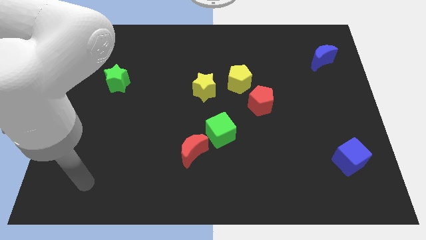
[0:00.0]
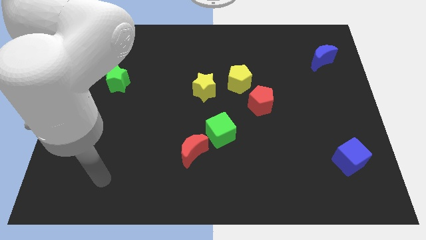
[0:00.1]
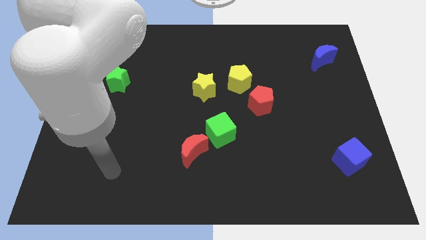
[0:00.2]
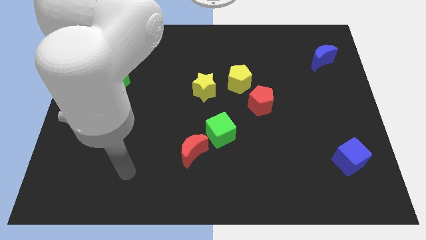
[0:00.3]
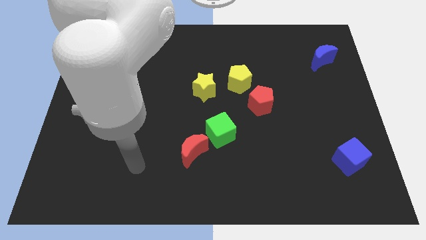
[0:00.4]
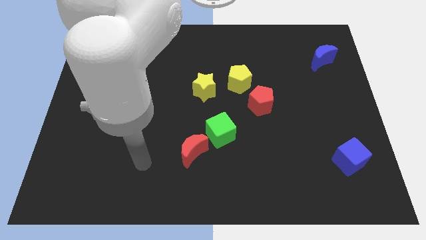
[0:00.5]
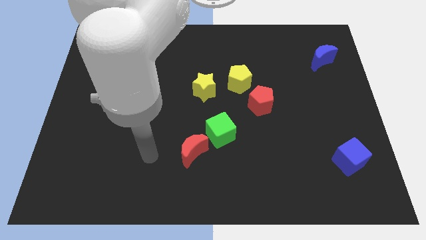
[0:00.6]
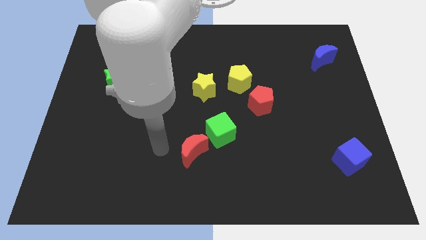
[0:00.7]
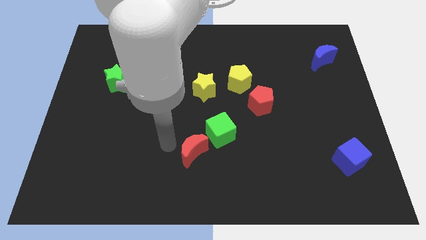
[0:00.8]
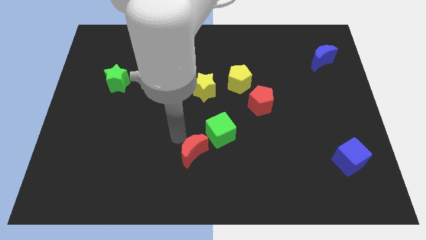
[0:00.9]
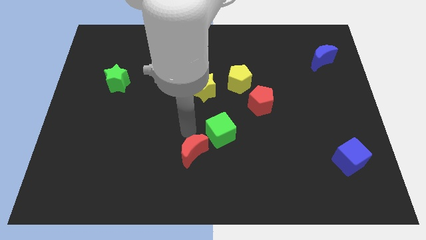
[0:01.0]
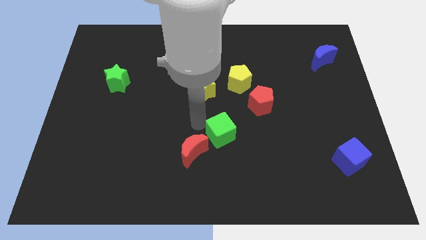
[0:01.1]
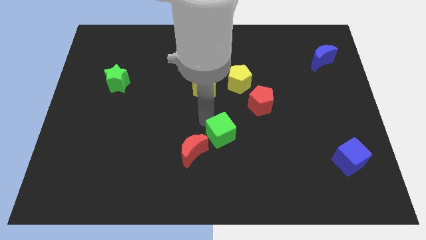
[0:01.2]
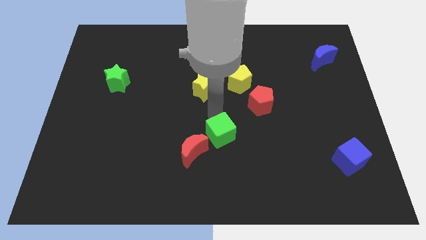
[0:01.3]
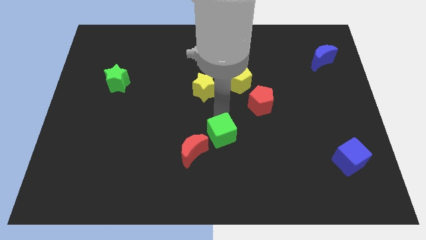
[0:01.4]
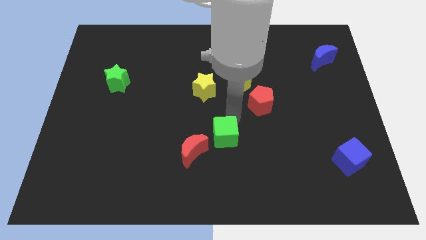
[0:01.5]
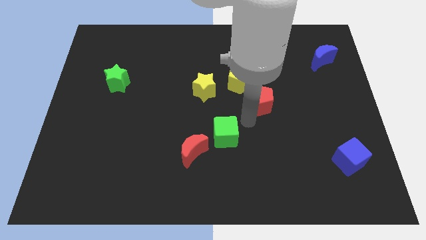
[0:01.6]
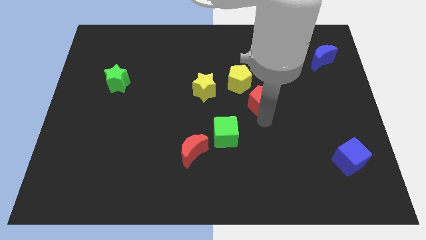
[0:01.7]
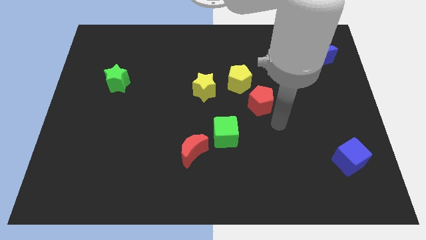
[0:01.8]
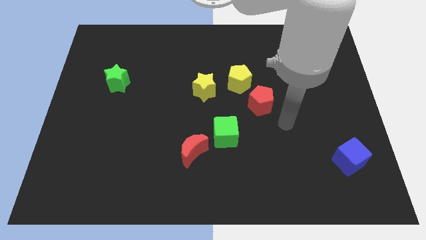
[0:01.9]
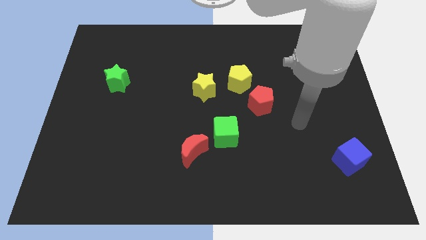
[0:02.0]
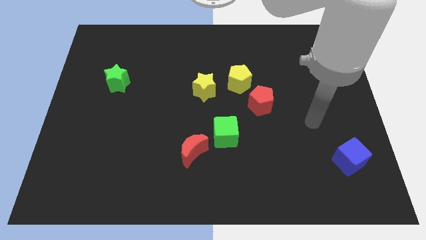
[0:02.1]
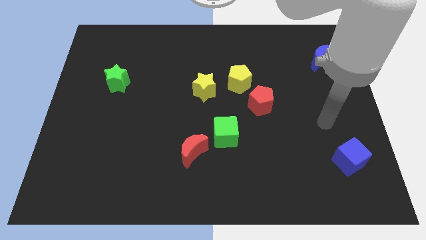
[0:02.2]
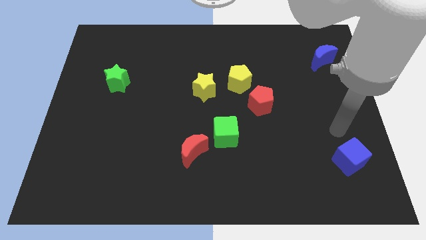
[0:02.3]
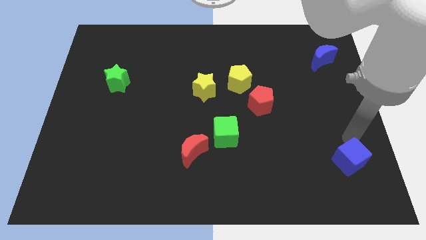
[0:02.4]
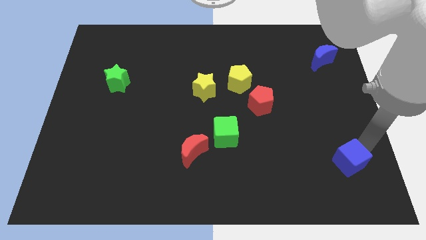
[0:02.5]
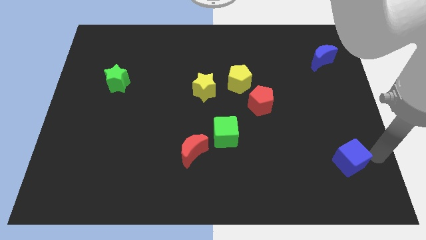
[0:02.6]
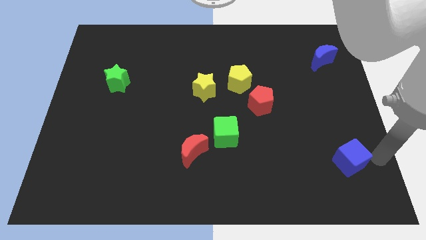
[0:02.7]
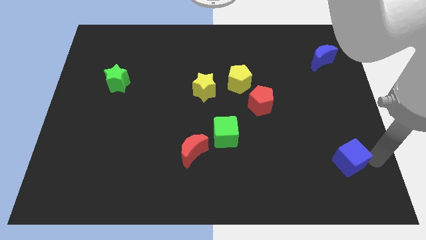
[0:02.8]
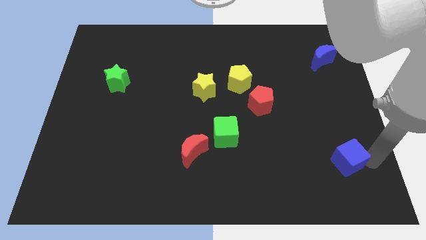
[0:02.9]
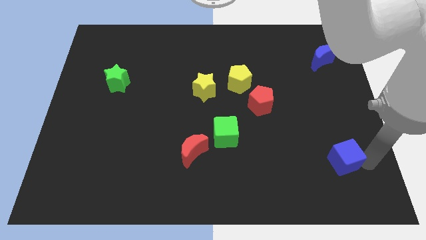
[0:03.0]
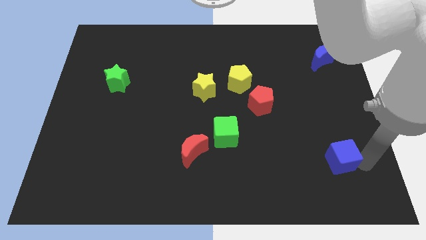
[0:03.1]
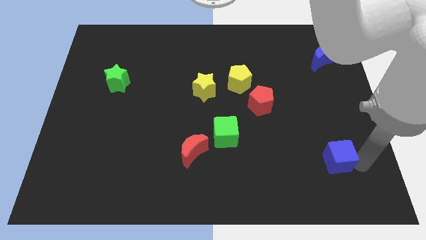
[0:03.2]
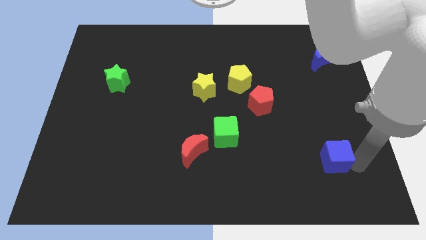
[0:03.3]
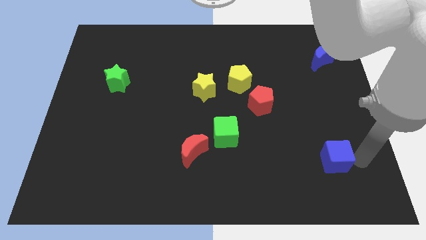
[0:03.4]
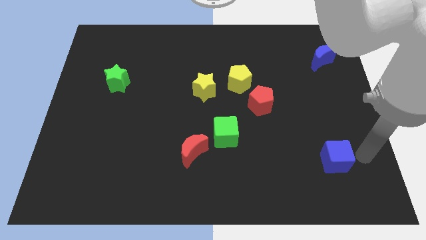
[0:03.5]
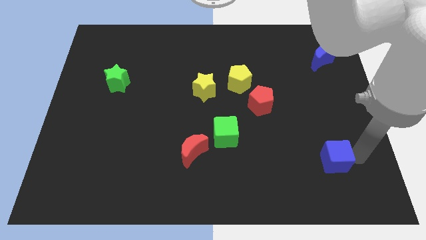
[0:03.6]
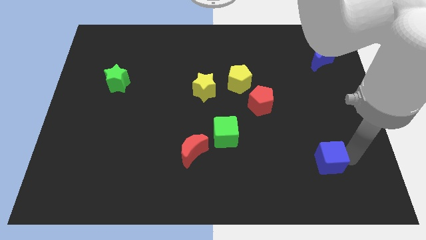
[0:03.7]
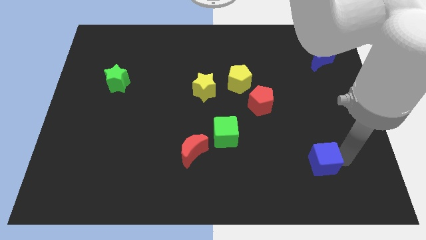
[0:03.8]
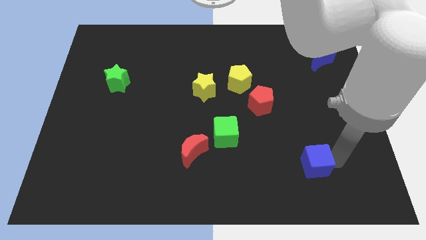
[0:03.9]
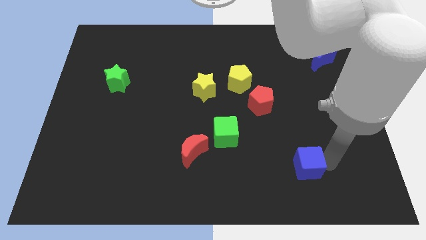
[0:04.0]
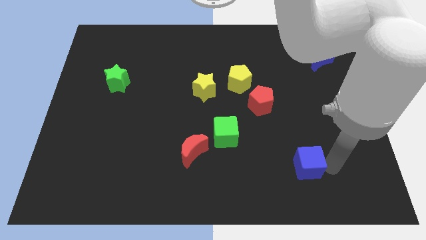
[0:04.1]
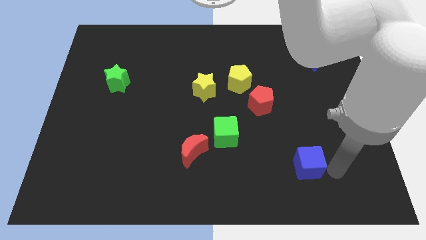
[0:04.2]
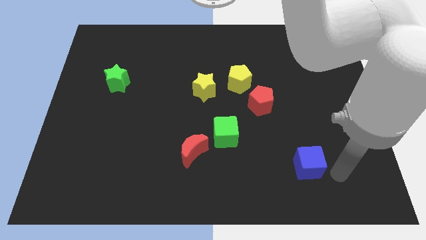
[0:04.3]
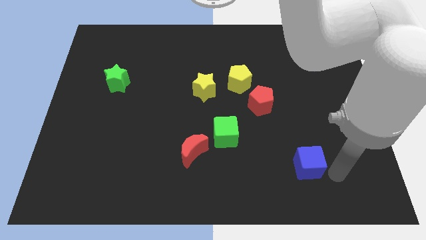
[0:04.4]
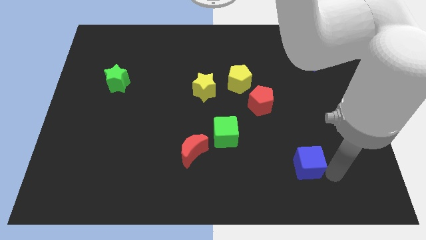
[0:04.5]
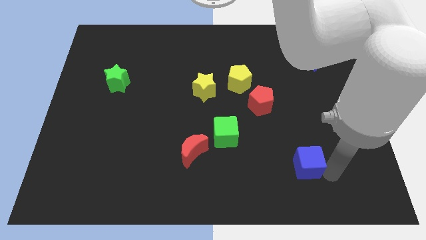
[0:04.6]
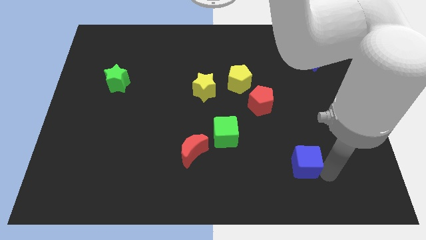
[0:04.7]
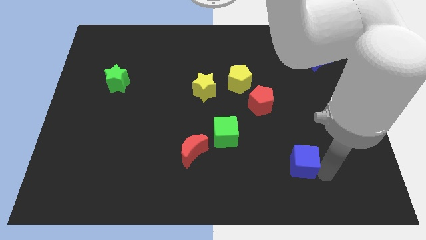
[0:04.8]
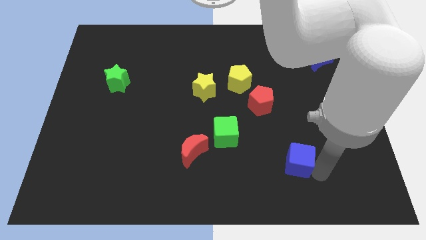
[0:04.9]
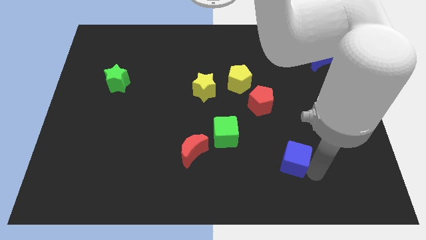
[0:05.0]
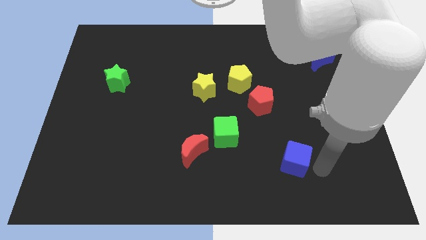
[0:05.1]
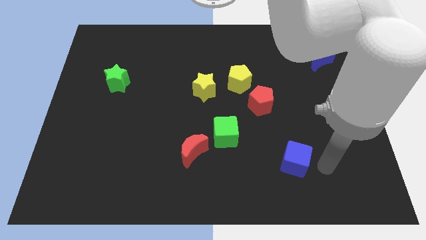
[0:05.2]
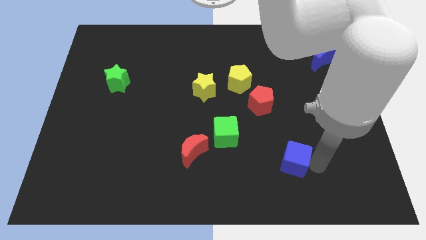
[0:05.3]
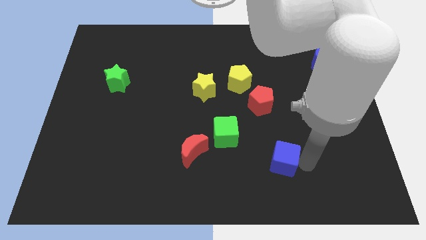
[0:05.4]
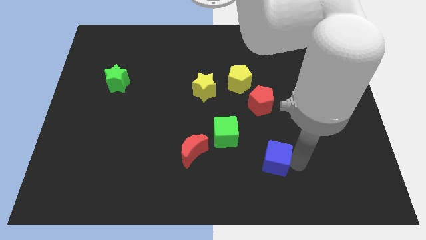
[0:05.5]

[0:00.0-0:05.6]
move the blue cube diagonally down and to the right of the green cube

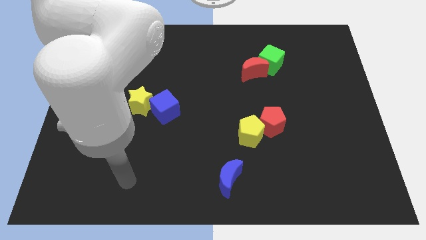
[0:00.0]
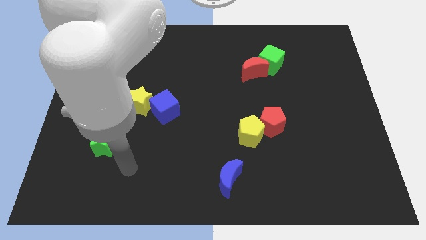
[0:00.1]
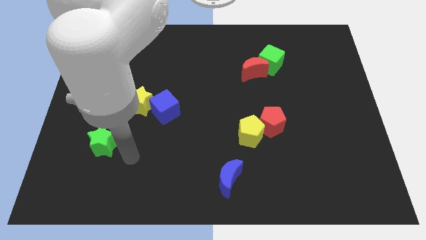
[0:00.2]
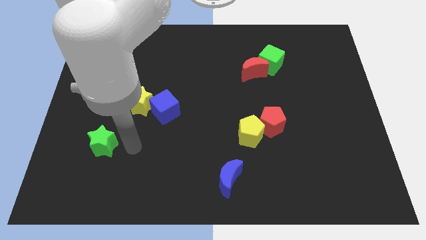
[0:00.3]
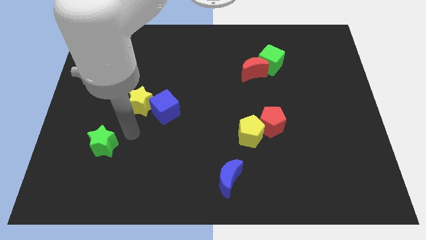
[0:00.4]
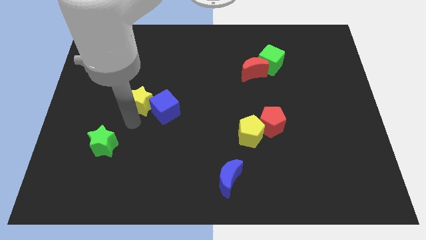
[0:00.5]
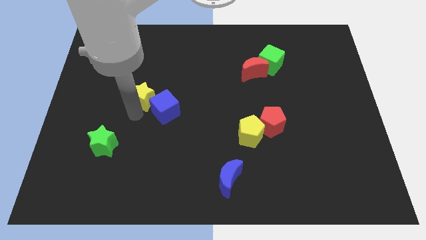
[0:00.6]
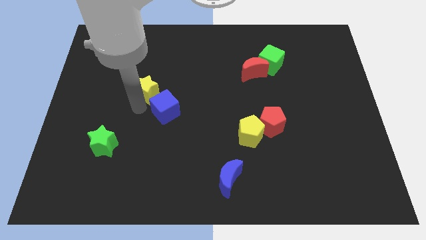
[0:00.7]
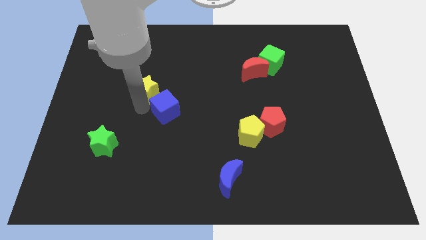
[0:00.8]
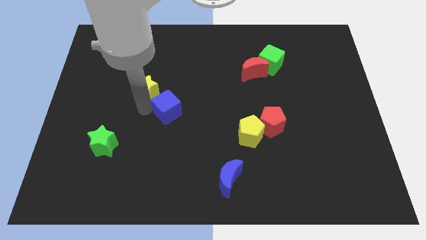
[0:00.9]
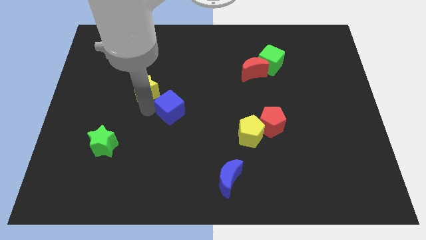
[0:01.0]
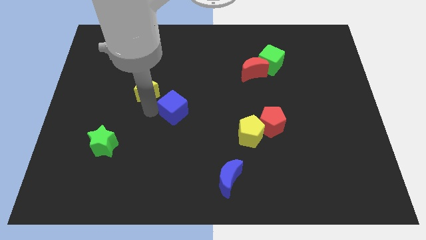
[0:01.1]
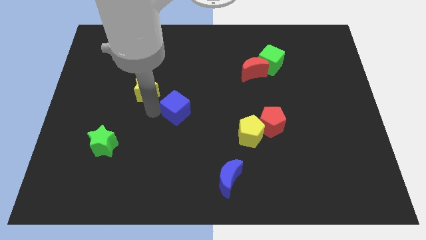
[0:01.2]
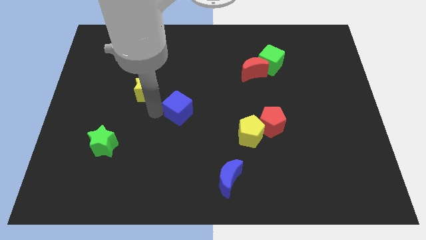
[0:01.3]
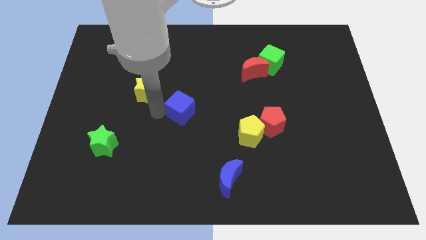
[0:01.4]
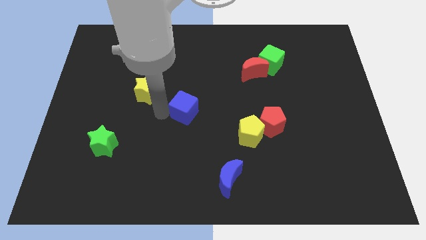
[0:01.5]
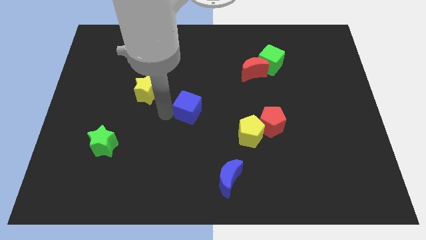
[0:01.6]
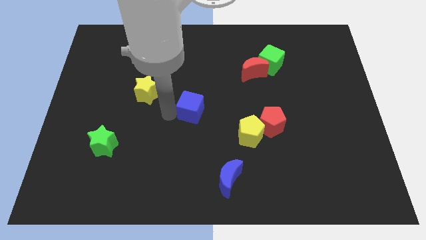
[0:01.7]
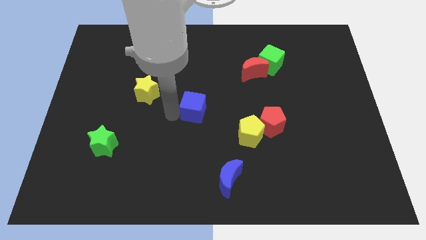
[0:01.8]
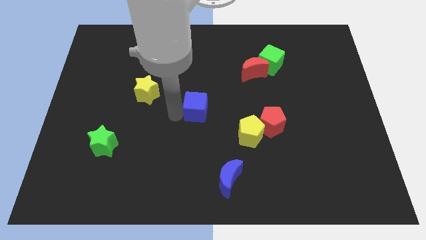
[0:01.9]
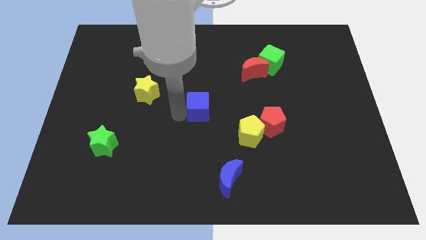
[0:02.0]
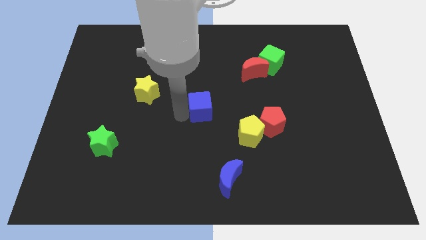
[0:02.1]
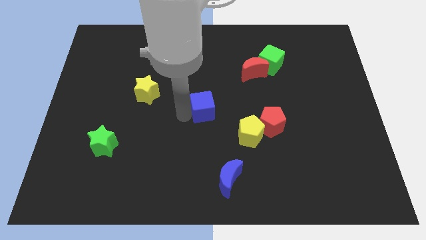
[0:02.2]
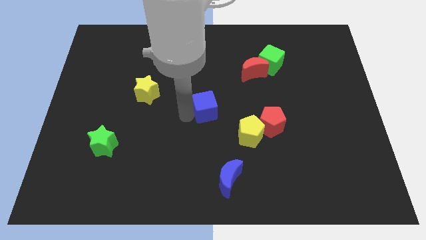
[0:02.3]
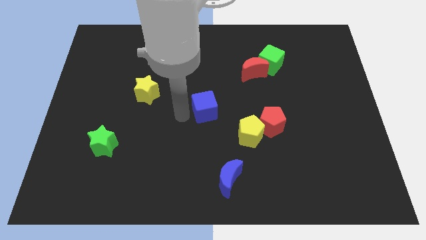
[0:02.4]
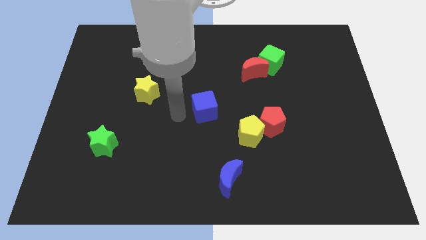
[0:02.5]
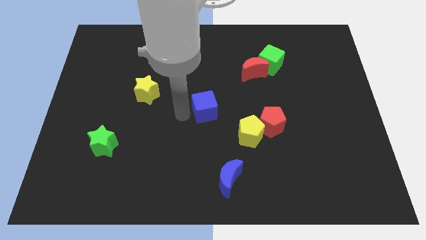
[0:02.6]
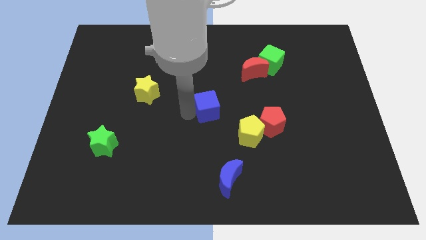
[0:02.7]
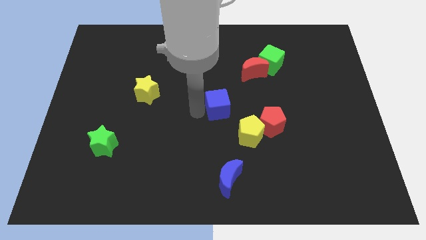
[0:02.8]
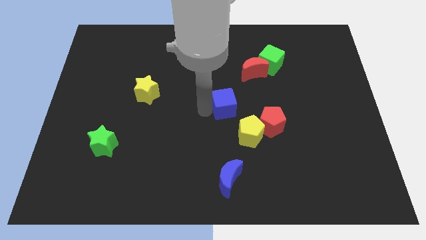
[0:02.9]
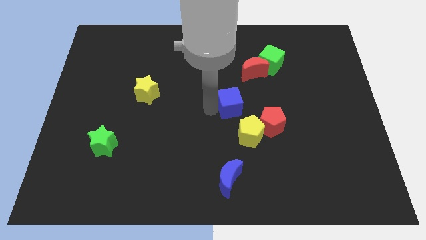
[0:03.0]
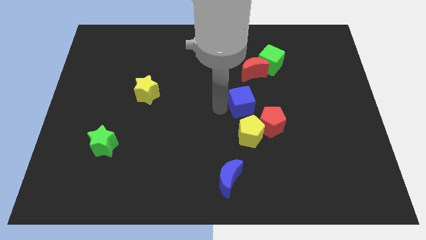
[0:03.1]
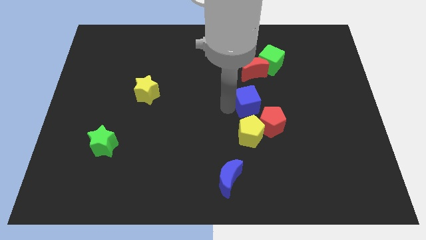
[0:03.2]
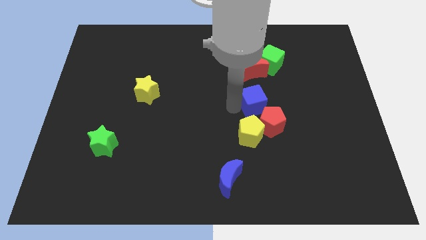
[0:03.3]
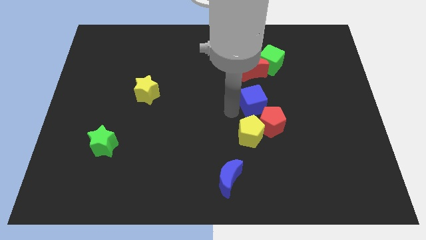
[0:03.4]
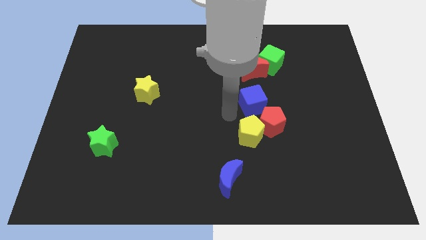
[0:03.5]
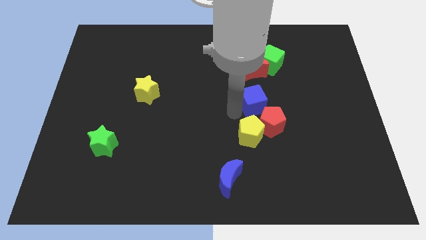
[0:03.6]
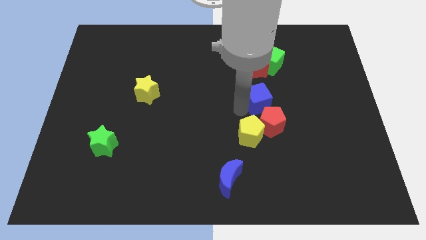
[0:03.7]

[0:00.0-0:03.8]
slide the blue cube below the green cube
